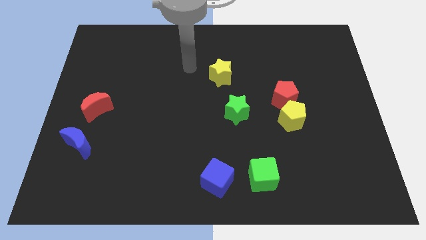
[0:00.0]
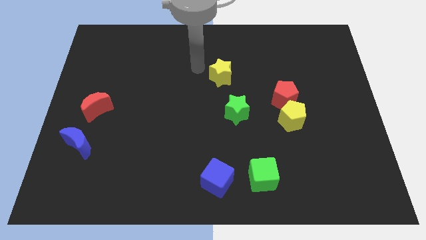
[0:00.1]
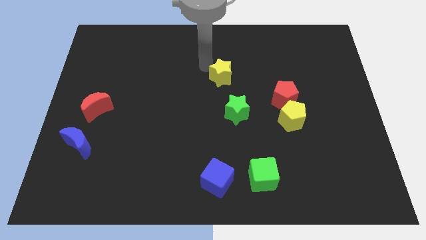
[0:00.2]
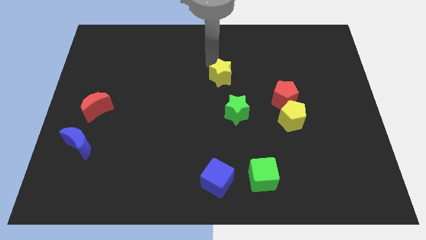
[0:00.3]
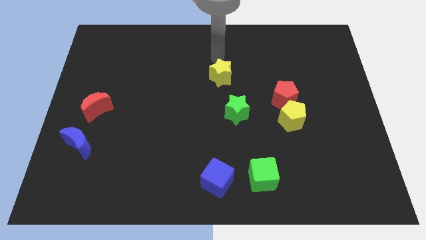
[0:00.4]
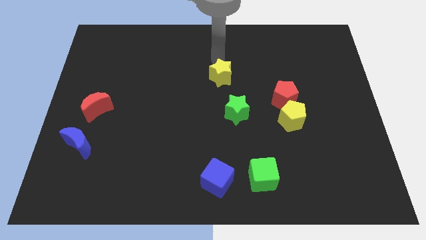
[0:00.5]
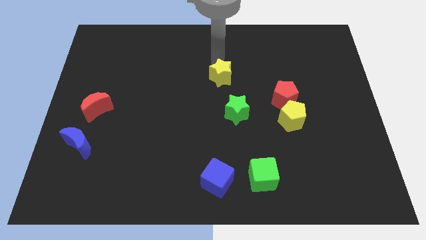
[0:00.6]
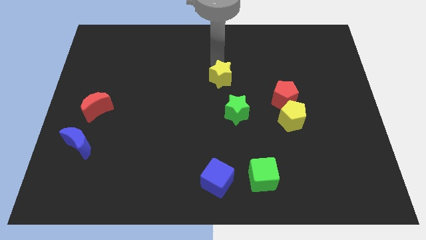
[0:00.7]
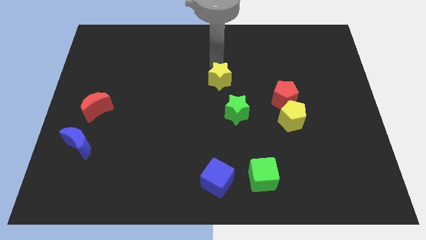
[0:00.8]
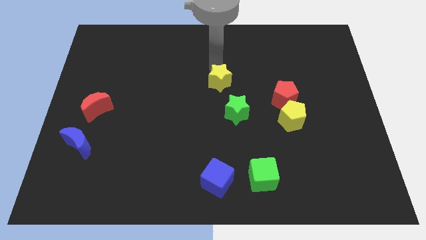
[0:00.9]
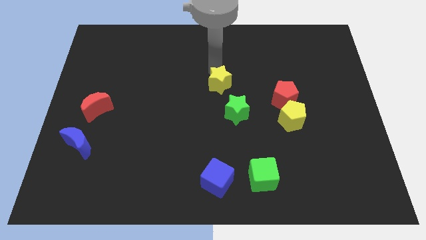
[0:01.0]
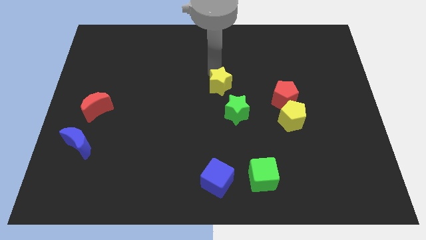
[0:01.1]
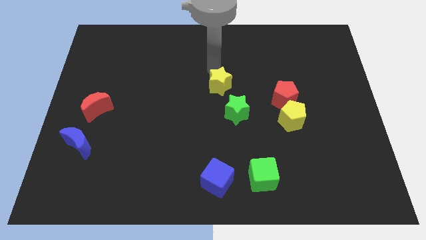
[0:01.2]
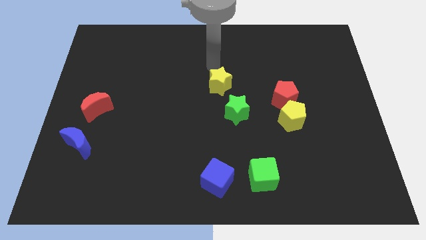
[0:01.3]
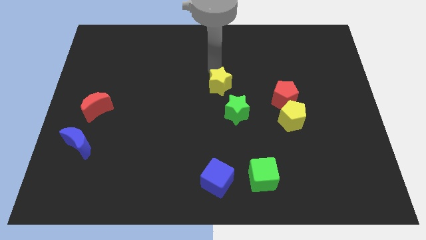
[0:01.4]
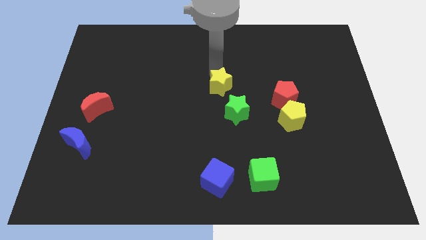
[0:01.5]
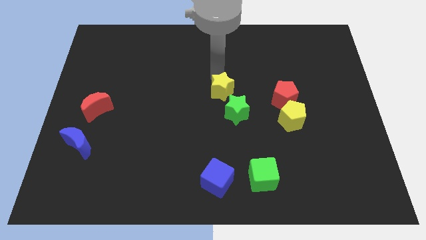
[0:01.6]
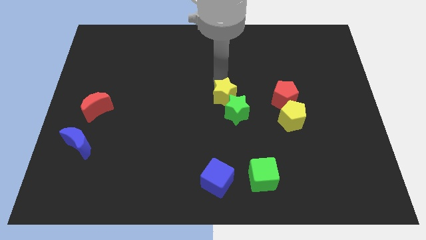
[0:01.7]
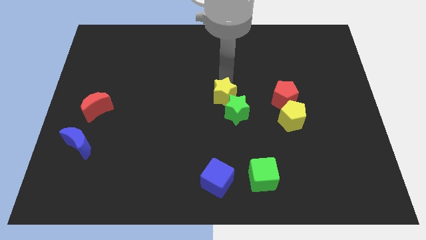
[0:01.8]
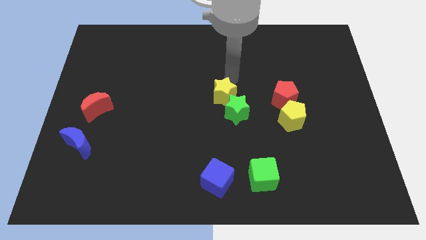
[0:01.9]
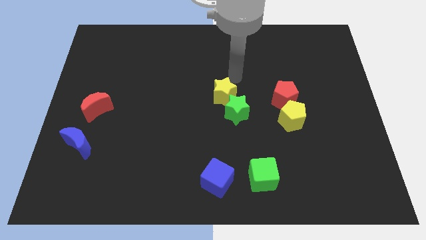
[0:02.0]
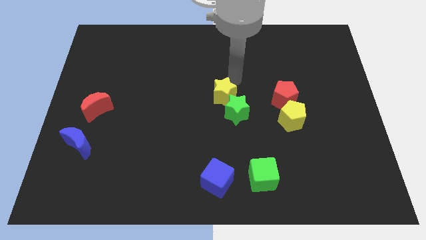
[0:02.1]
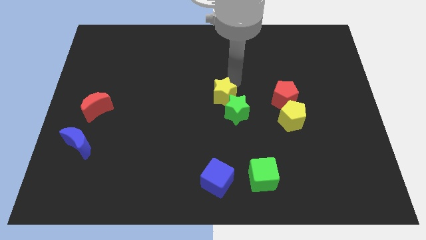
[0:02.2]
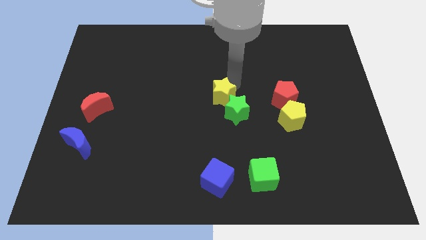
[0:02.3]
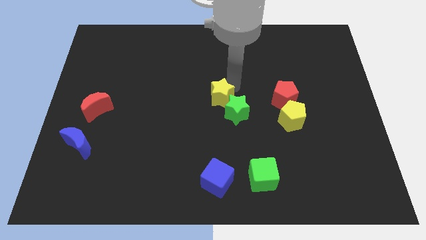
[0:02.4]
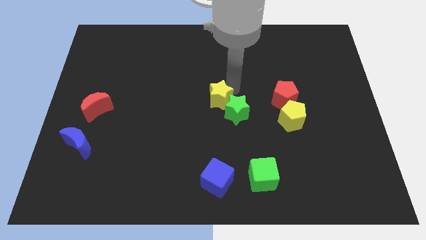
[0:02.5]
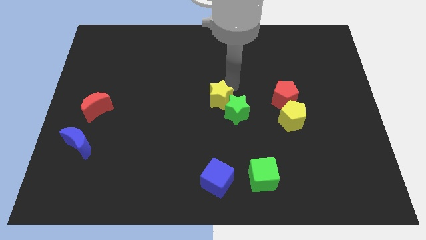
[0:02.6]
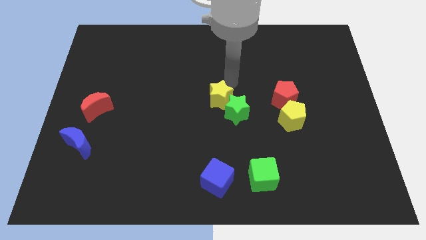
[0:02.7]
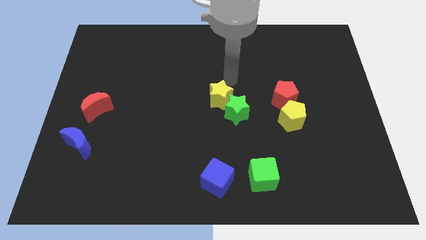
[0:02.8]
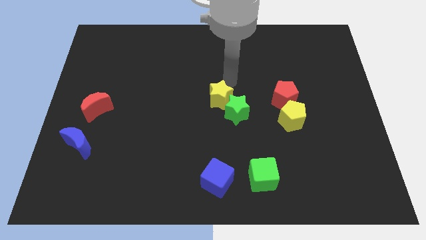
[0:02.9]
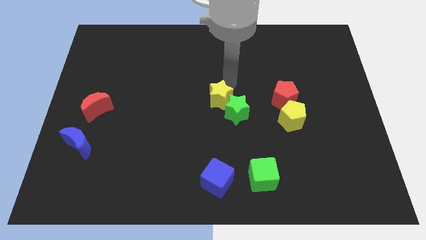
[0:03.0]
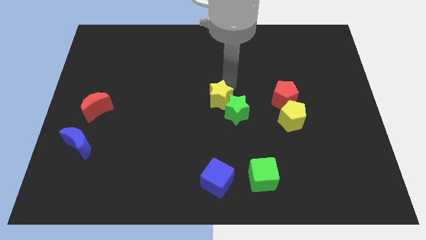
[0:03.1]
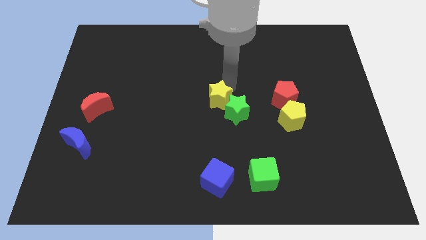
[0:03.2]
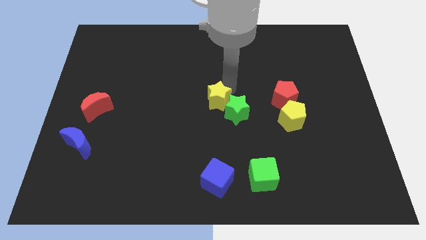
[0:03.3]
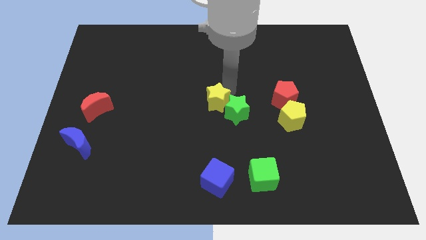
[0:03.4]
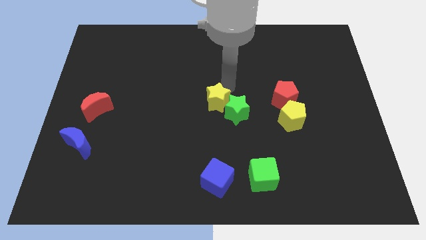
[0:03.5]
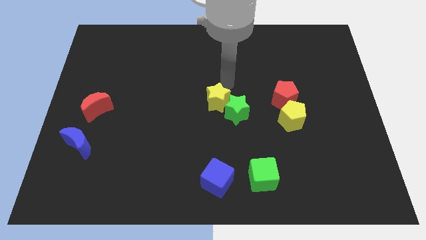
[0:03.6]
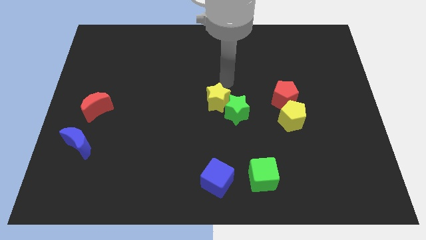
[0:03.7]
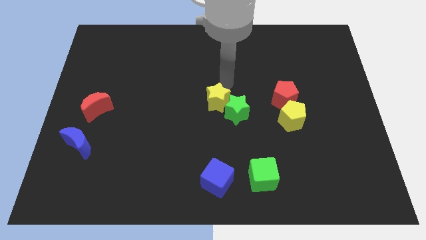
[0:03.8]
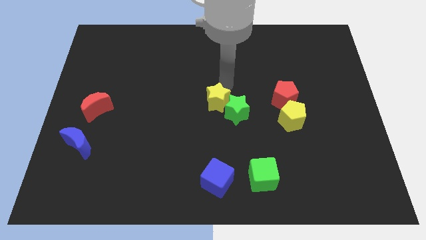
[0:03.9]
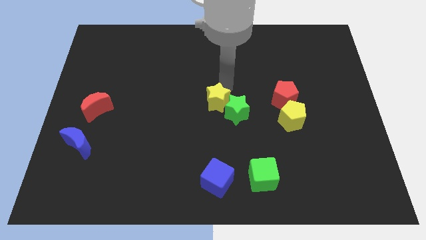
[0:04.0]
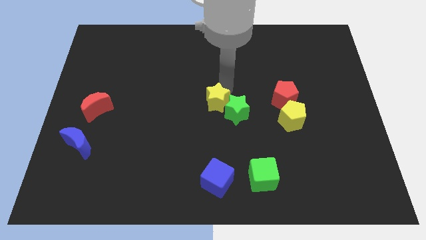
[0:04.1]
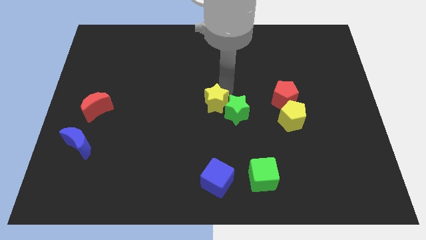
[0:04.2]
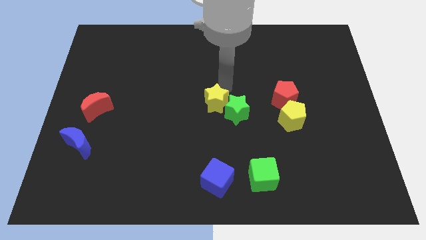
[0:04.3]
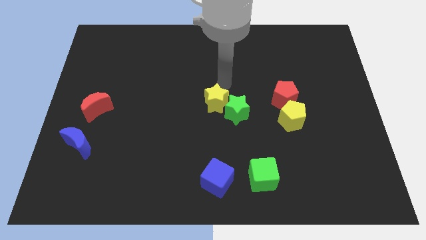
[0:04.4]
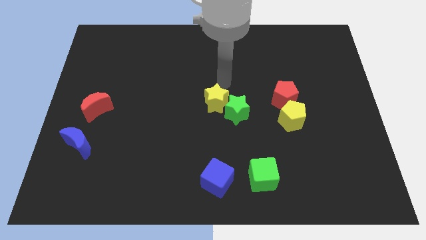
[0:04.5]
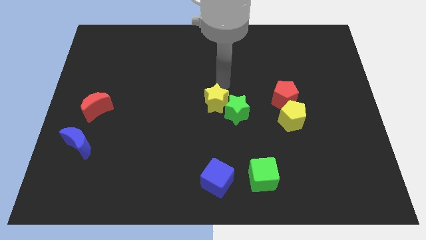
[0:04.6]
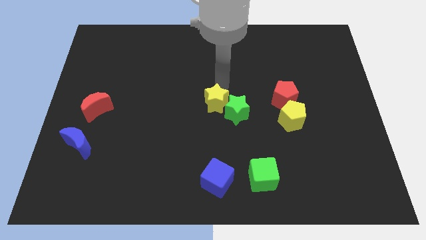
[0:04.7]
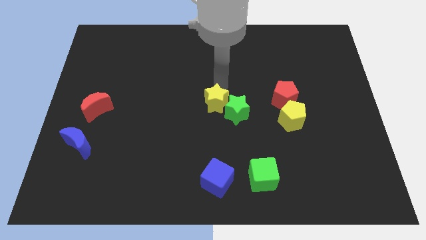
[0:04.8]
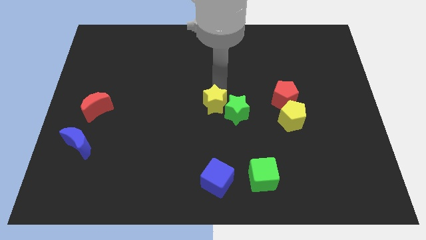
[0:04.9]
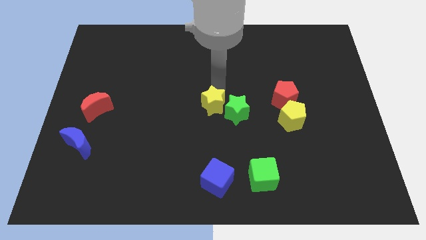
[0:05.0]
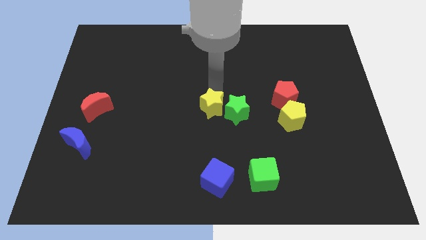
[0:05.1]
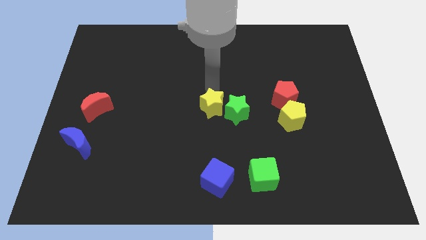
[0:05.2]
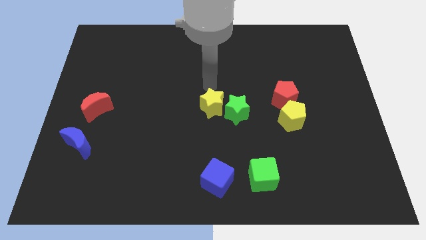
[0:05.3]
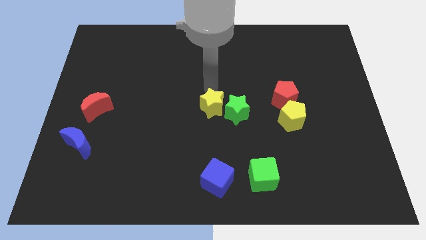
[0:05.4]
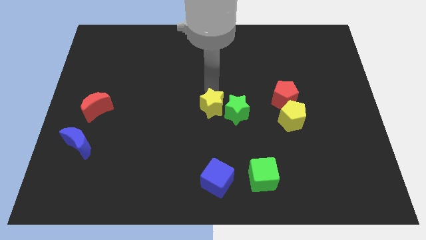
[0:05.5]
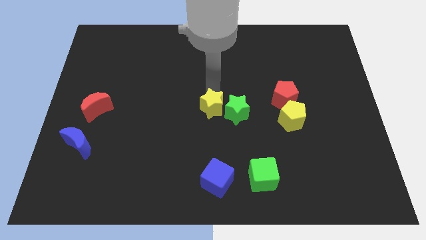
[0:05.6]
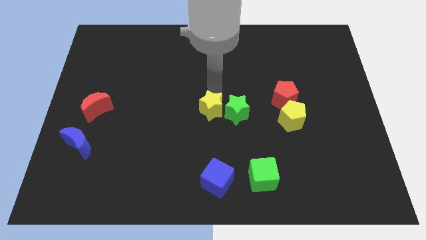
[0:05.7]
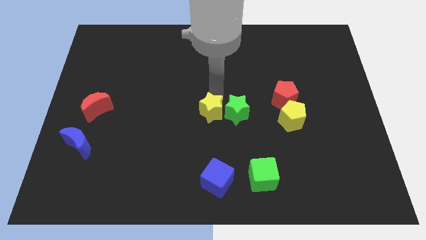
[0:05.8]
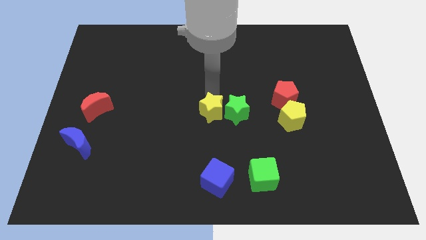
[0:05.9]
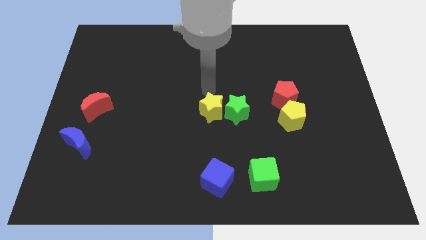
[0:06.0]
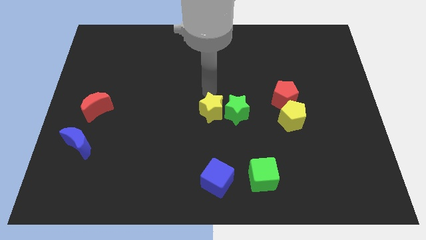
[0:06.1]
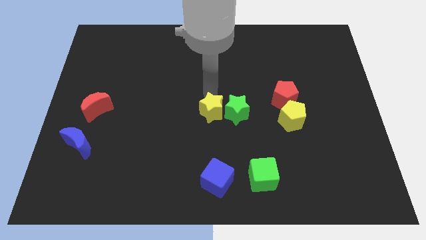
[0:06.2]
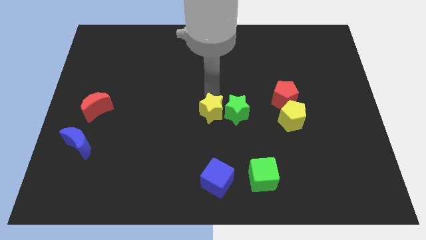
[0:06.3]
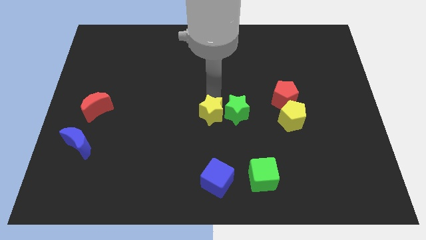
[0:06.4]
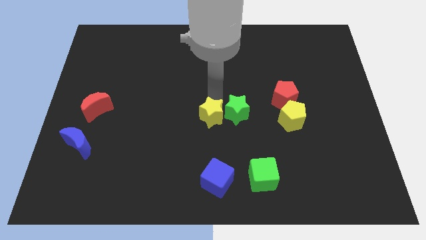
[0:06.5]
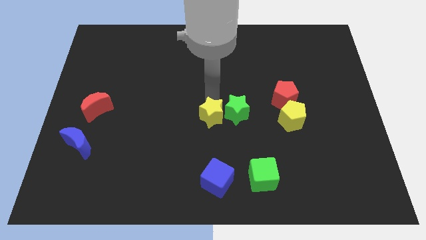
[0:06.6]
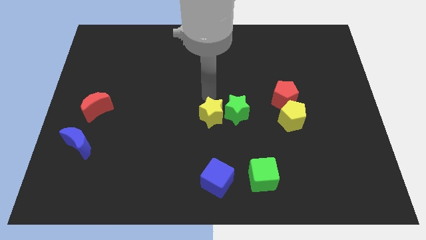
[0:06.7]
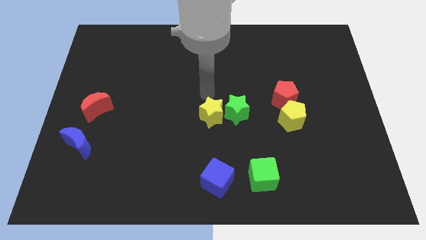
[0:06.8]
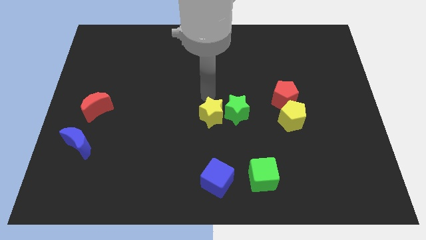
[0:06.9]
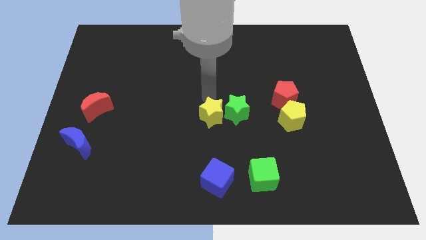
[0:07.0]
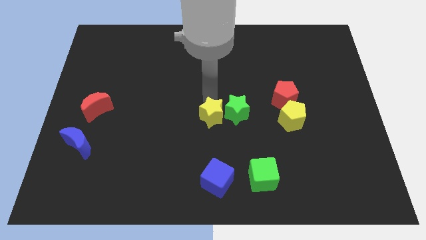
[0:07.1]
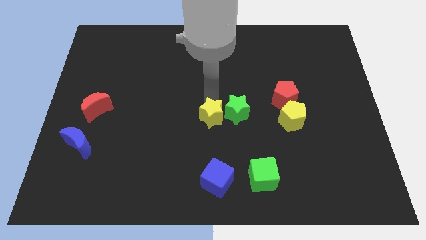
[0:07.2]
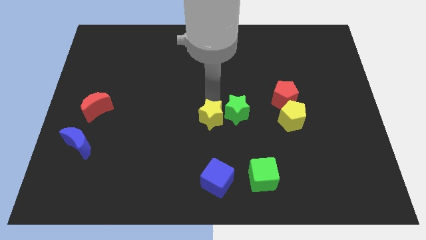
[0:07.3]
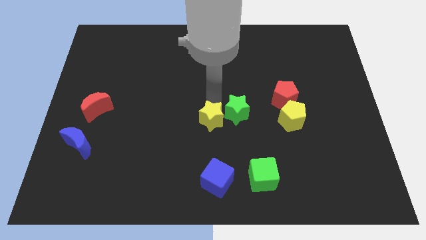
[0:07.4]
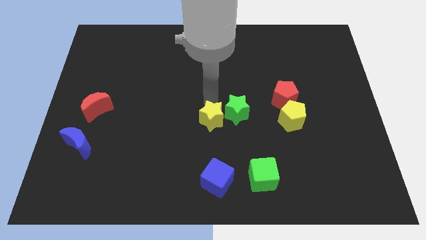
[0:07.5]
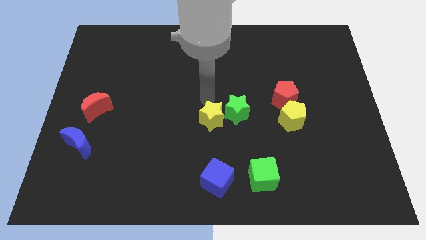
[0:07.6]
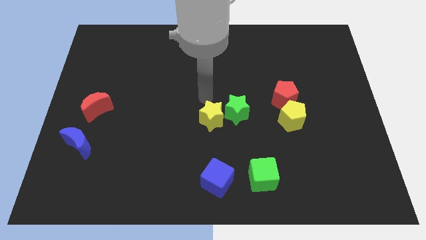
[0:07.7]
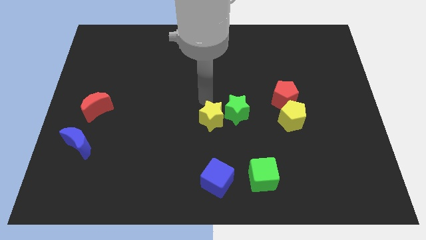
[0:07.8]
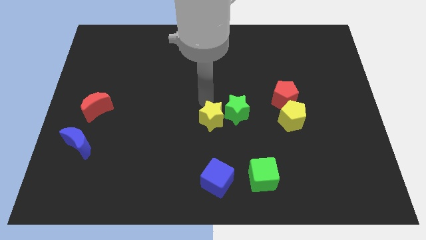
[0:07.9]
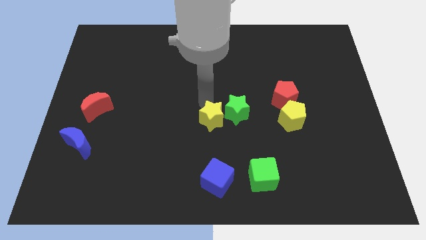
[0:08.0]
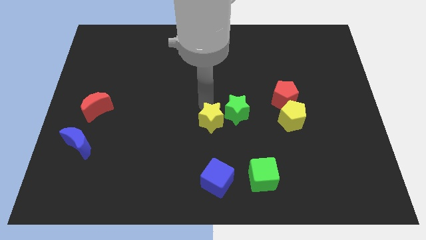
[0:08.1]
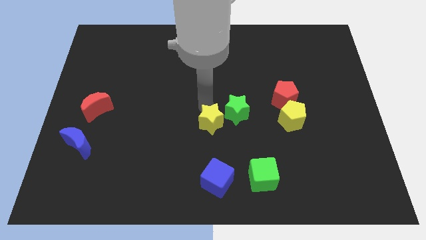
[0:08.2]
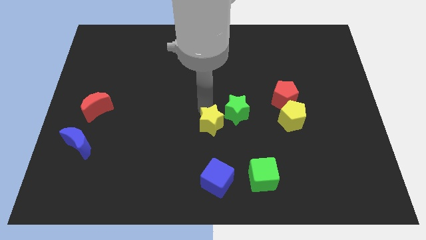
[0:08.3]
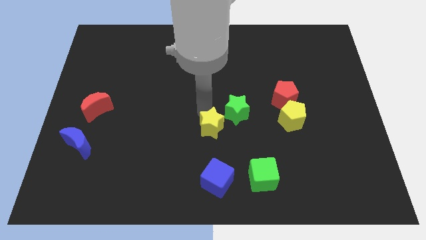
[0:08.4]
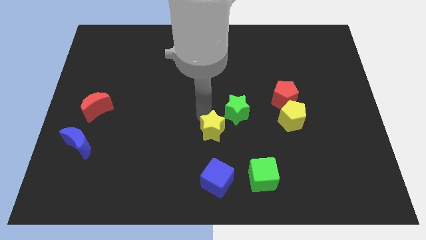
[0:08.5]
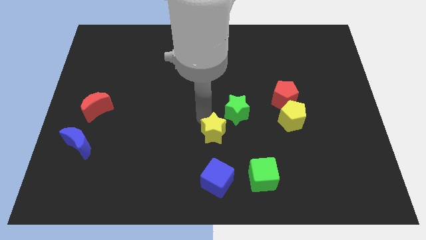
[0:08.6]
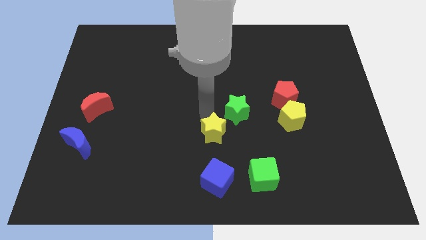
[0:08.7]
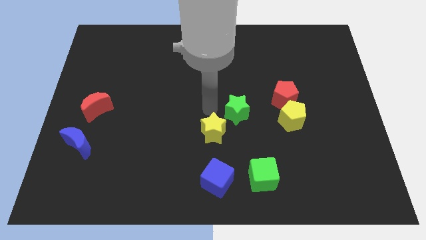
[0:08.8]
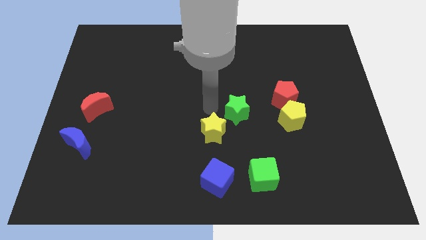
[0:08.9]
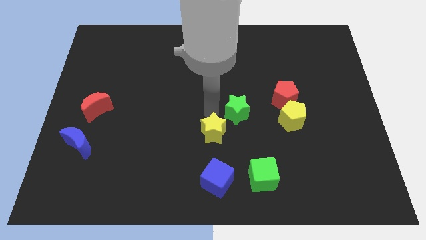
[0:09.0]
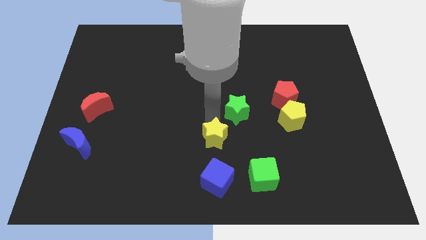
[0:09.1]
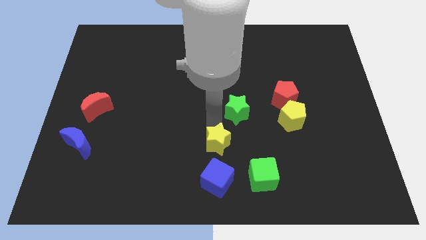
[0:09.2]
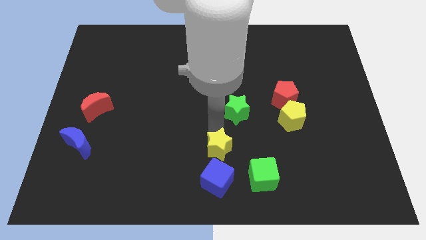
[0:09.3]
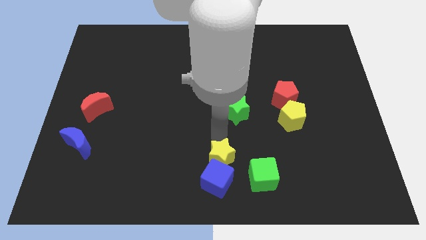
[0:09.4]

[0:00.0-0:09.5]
push the yellow star towards the blue cube
